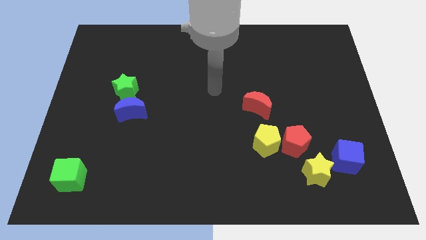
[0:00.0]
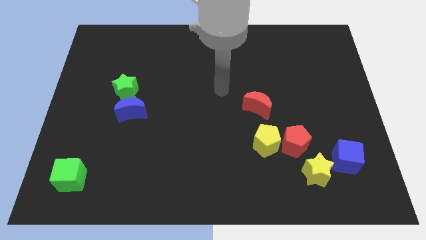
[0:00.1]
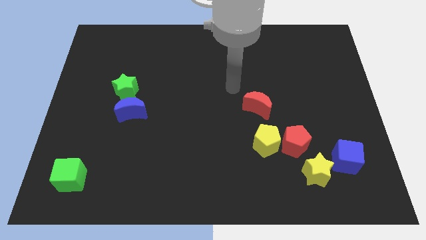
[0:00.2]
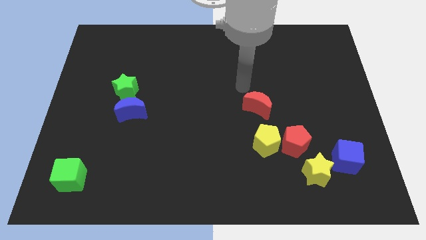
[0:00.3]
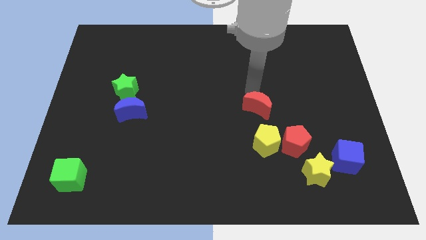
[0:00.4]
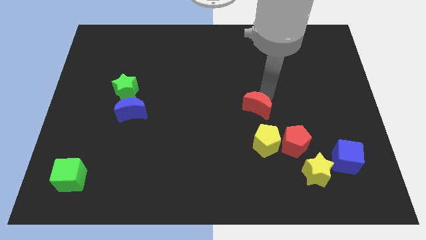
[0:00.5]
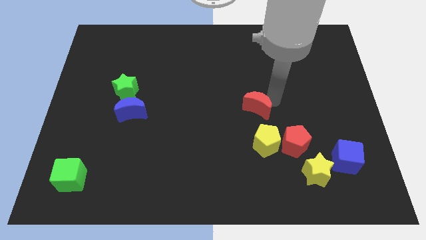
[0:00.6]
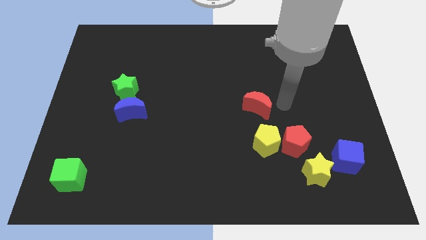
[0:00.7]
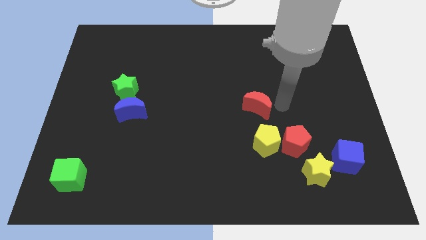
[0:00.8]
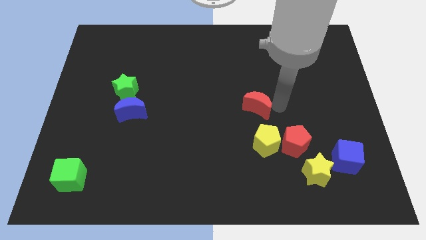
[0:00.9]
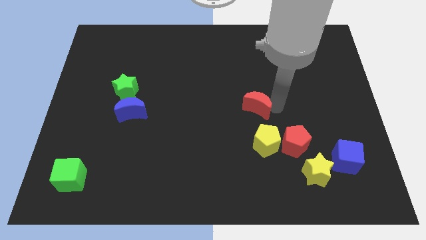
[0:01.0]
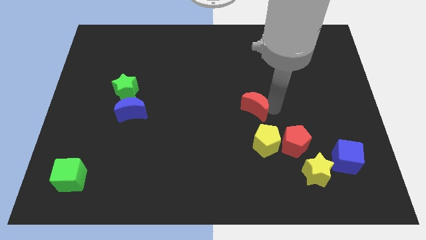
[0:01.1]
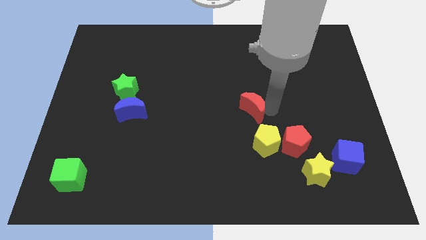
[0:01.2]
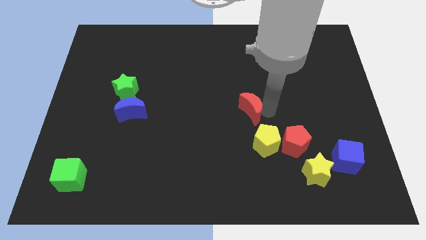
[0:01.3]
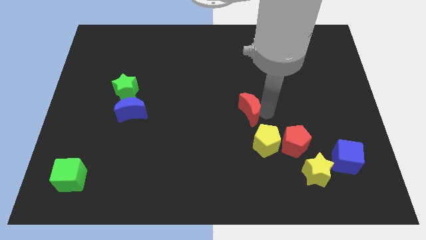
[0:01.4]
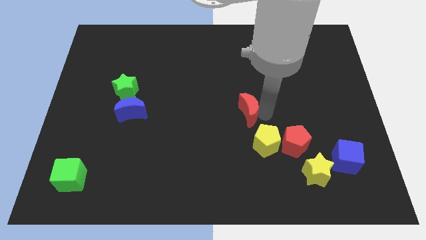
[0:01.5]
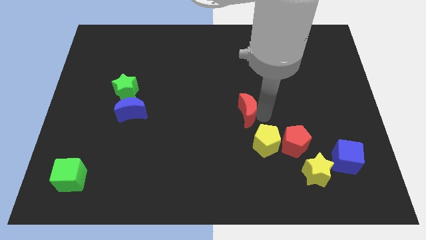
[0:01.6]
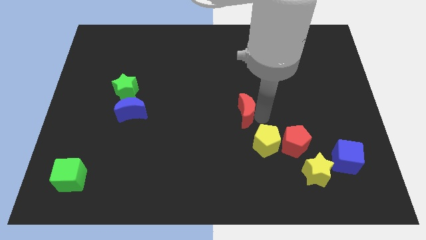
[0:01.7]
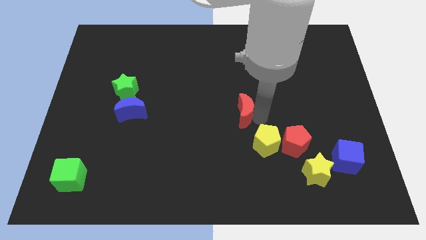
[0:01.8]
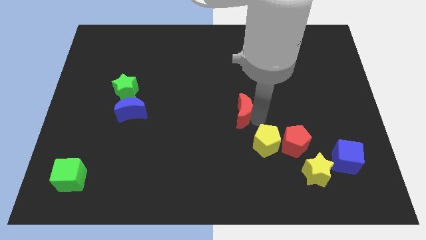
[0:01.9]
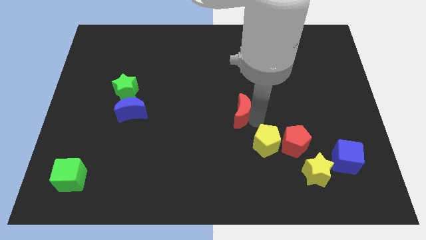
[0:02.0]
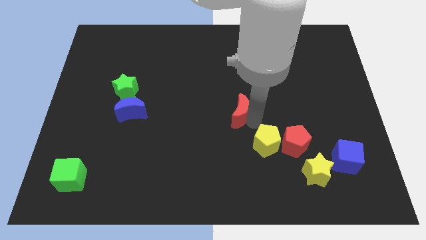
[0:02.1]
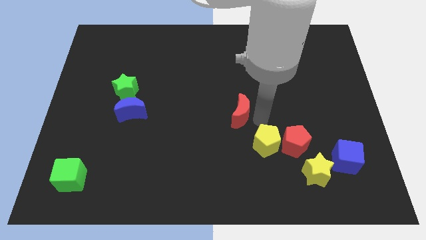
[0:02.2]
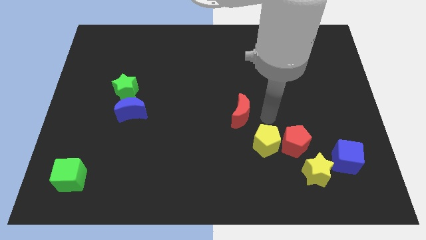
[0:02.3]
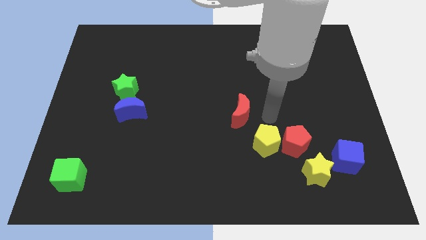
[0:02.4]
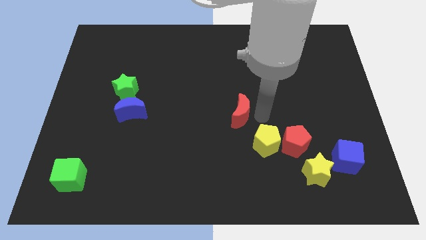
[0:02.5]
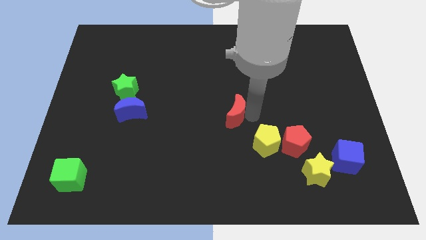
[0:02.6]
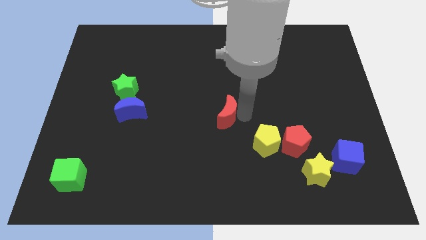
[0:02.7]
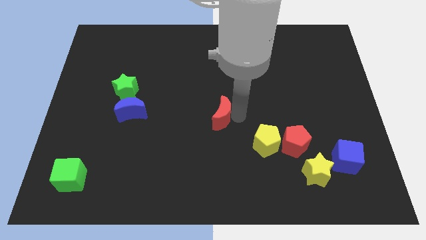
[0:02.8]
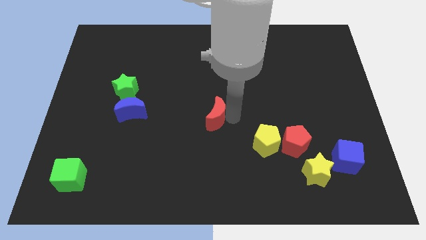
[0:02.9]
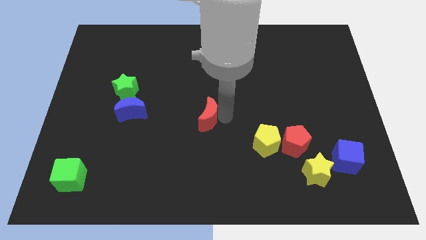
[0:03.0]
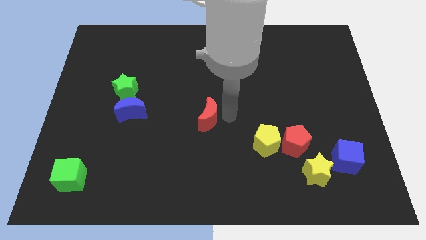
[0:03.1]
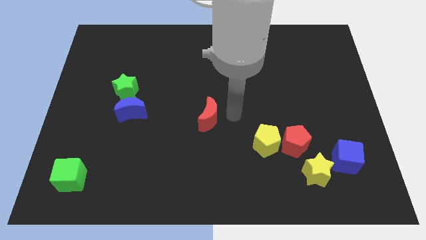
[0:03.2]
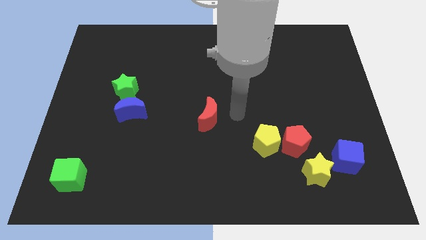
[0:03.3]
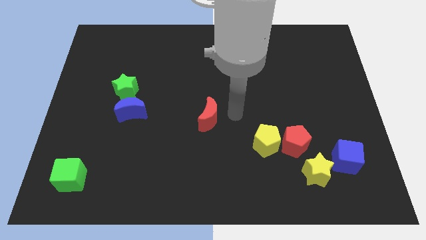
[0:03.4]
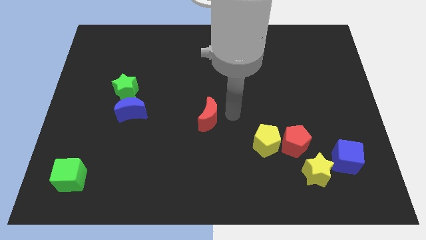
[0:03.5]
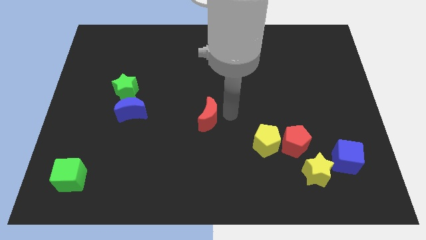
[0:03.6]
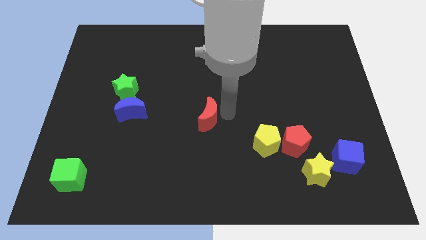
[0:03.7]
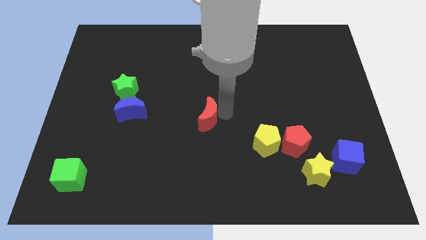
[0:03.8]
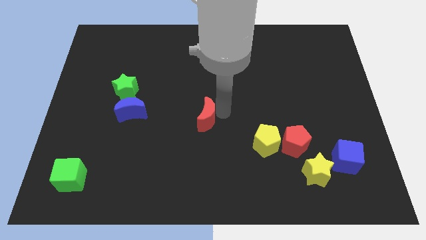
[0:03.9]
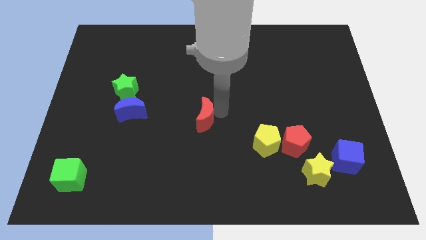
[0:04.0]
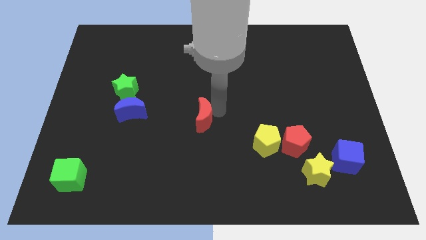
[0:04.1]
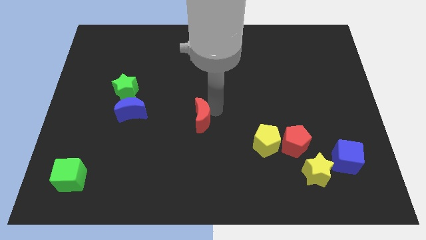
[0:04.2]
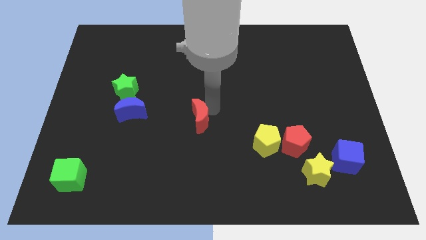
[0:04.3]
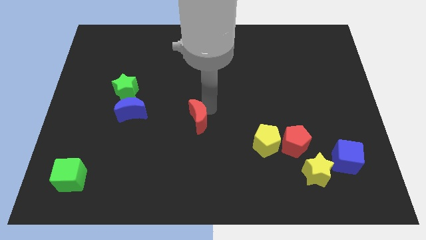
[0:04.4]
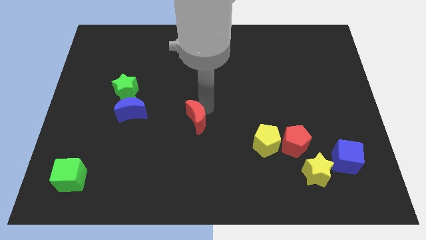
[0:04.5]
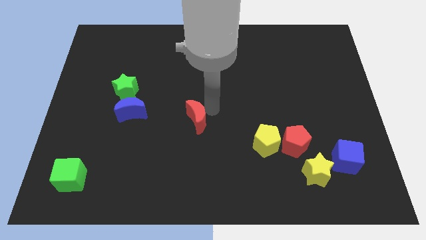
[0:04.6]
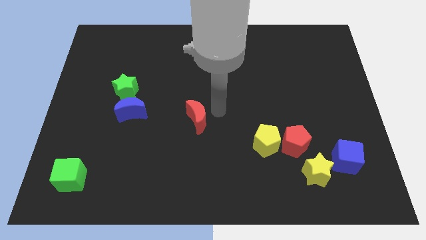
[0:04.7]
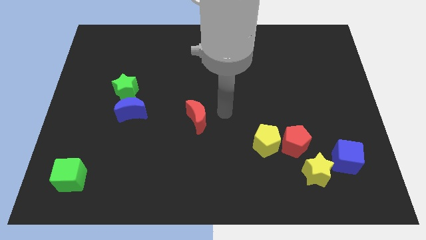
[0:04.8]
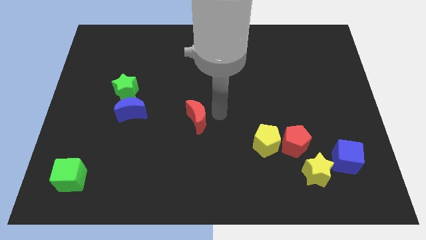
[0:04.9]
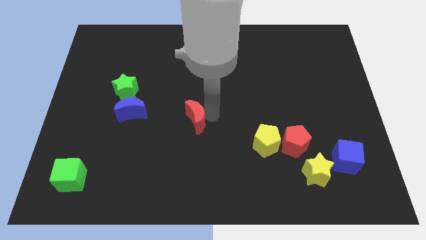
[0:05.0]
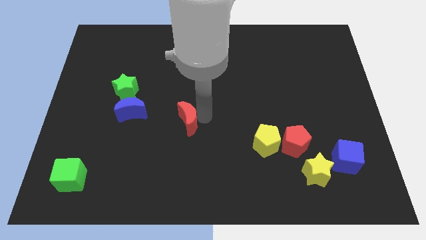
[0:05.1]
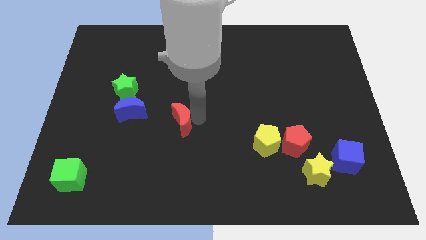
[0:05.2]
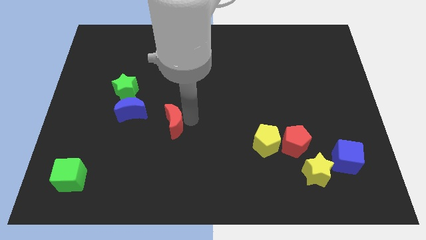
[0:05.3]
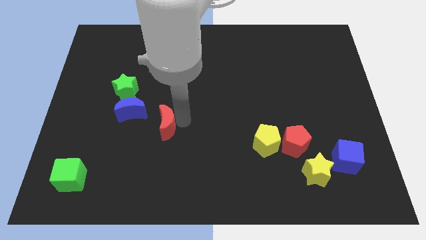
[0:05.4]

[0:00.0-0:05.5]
put the red moon diagonally down and to the right of the blue moon

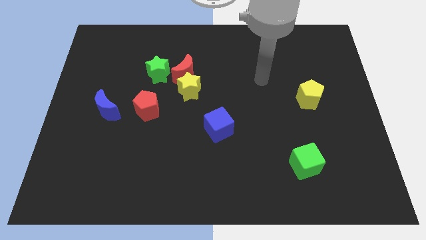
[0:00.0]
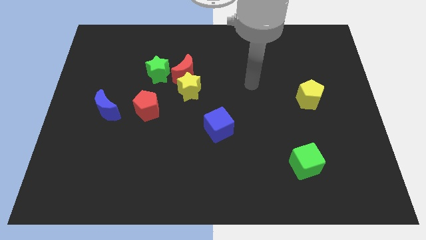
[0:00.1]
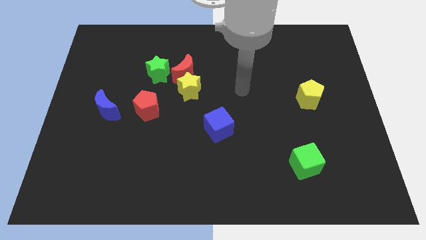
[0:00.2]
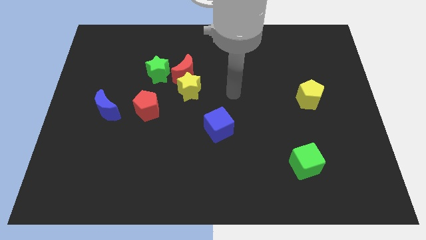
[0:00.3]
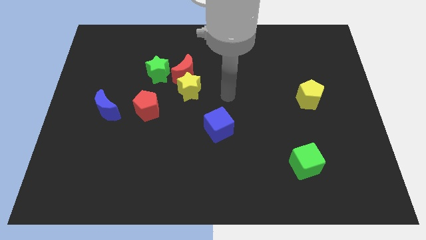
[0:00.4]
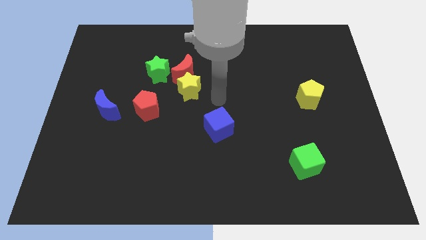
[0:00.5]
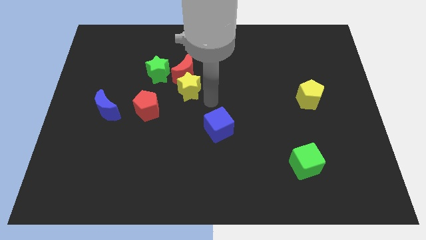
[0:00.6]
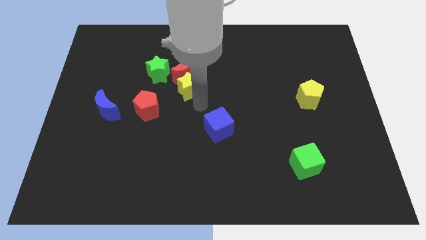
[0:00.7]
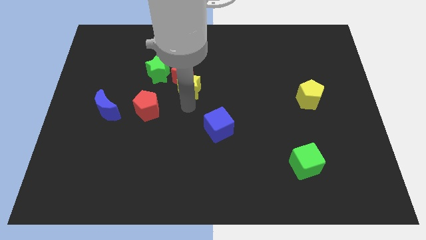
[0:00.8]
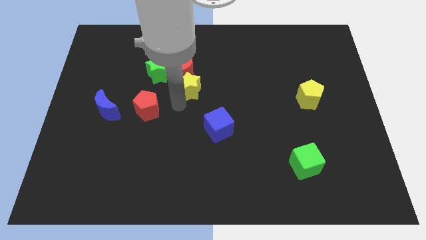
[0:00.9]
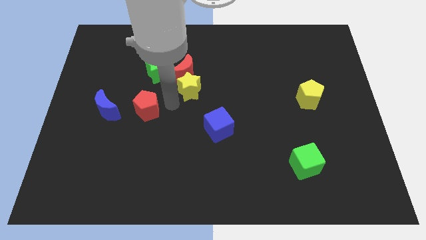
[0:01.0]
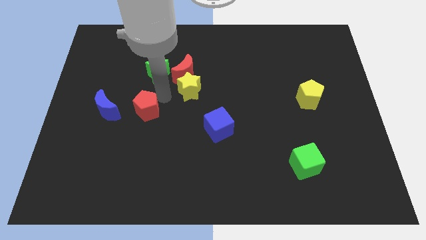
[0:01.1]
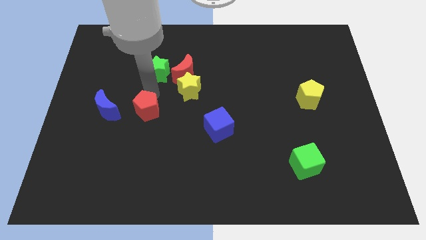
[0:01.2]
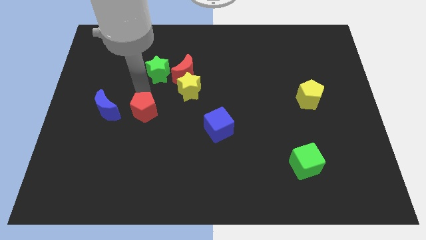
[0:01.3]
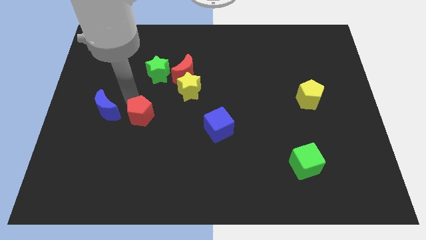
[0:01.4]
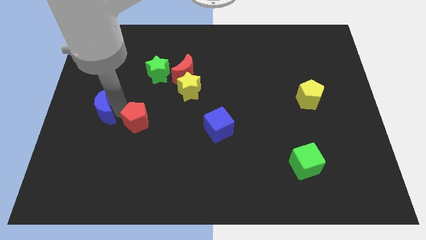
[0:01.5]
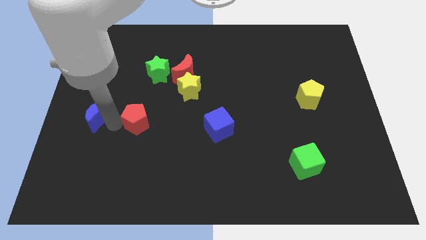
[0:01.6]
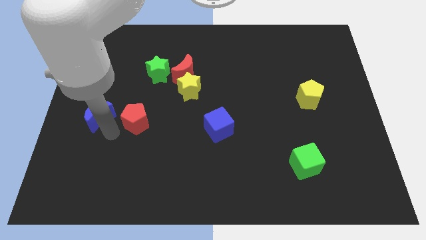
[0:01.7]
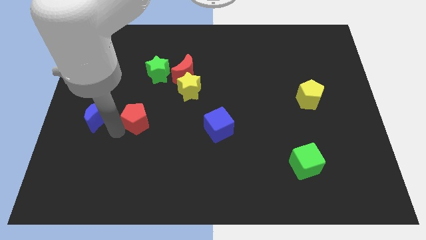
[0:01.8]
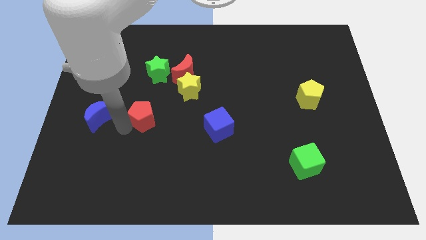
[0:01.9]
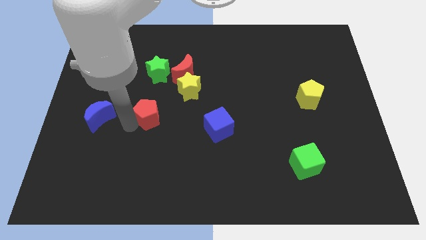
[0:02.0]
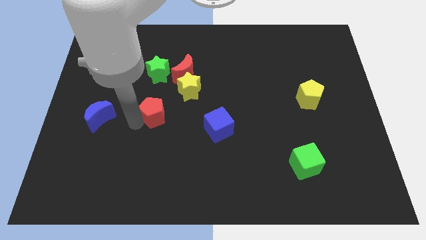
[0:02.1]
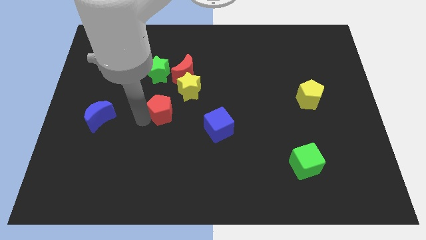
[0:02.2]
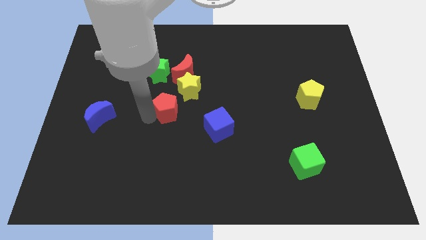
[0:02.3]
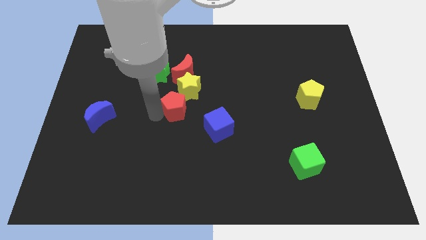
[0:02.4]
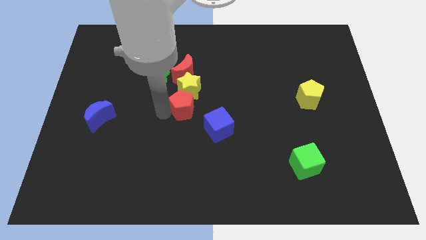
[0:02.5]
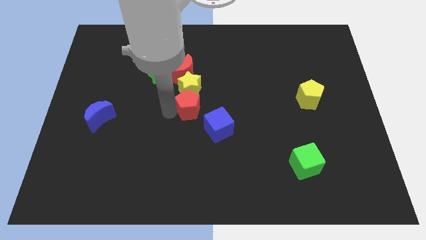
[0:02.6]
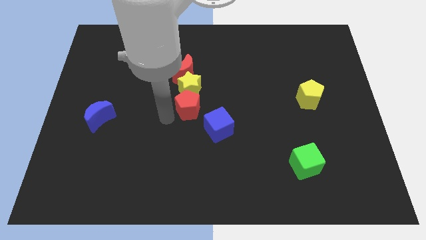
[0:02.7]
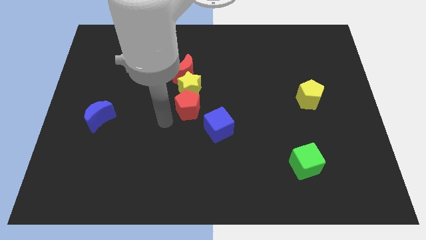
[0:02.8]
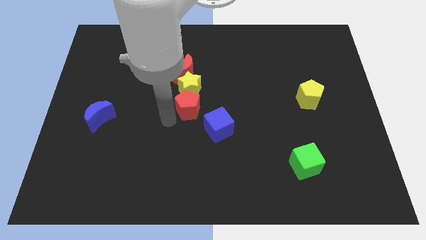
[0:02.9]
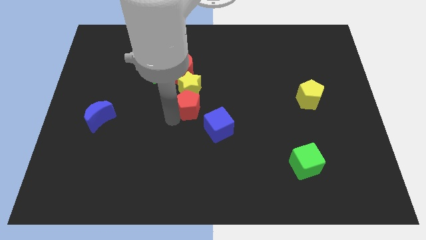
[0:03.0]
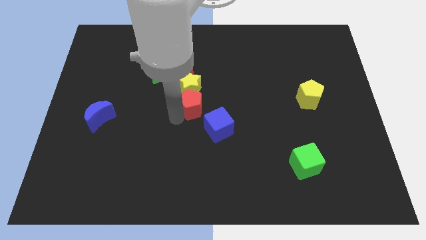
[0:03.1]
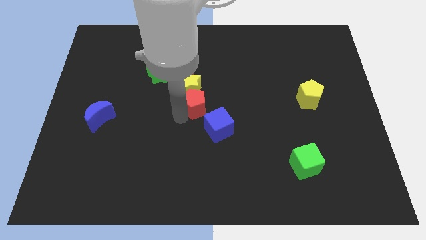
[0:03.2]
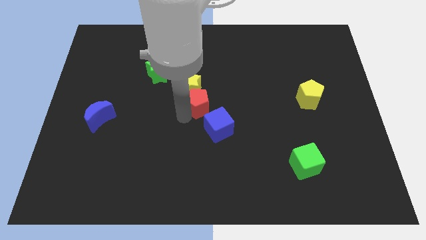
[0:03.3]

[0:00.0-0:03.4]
put the red pentagon above the blue cube
